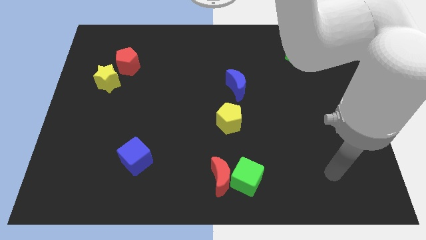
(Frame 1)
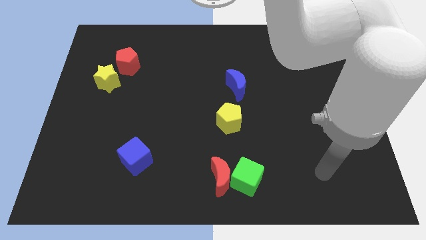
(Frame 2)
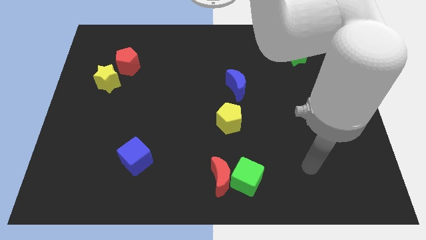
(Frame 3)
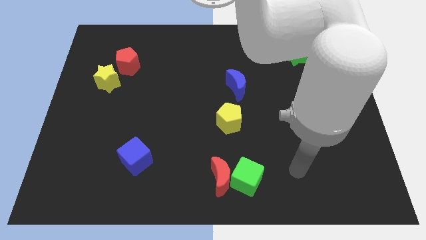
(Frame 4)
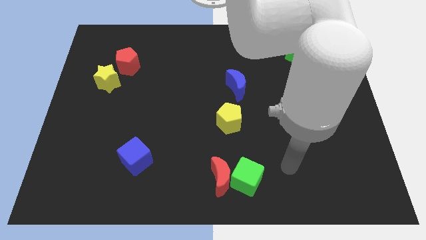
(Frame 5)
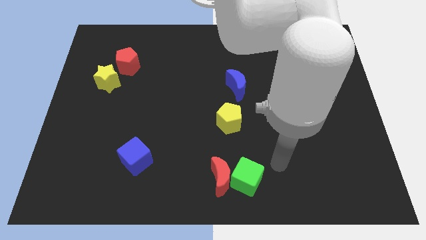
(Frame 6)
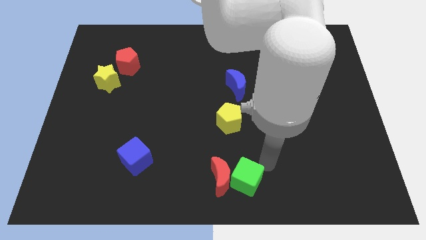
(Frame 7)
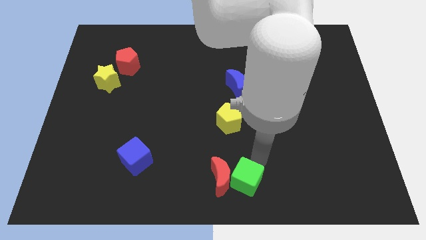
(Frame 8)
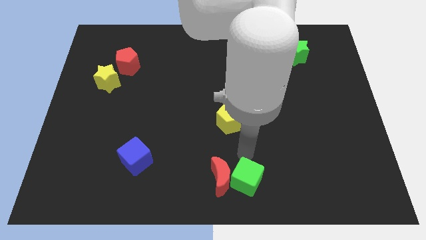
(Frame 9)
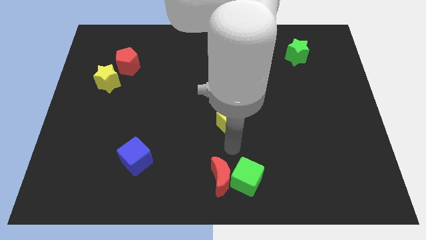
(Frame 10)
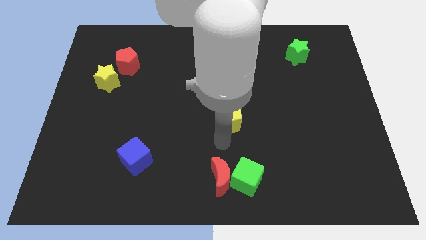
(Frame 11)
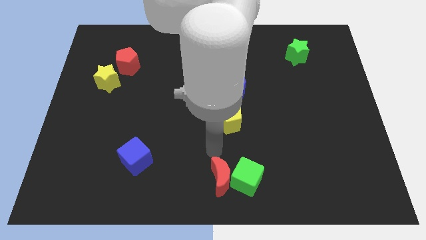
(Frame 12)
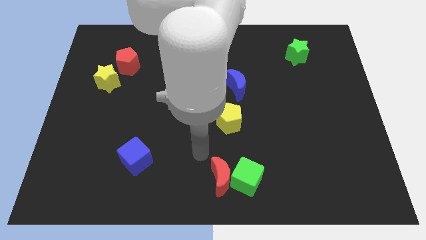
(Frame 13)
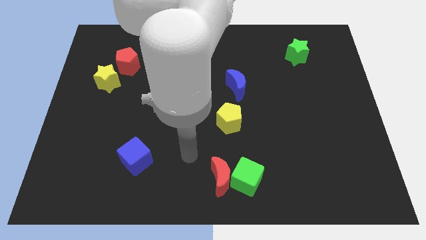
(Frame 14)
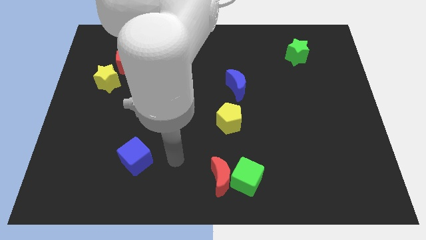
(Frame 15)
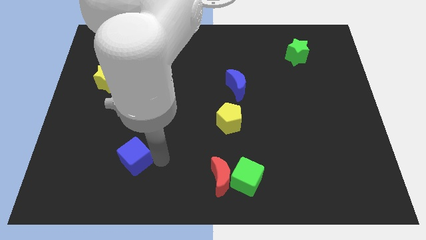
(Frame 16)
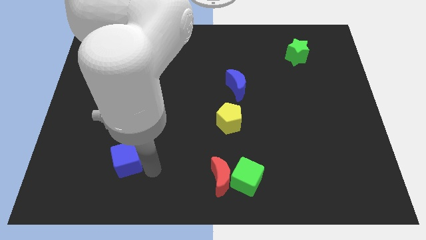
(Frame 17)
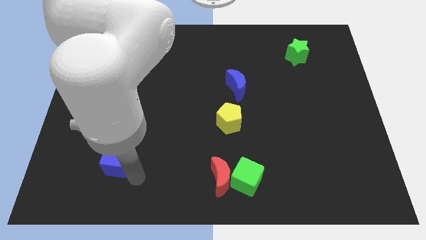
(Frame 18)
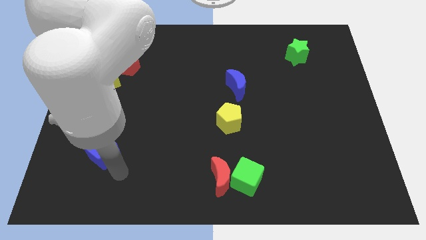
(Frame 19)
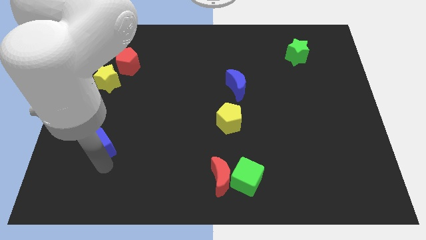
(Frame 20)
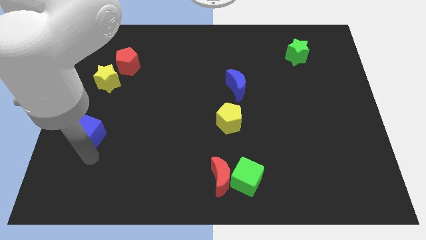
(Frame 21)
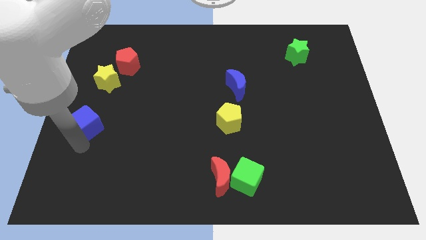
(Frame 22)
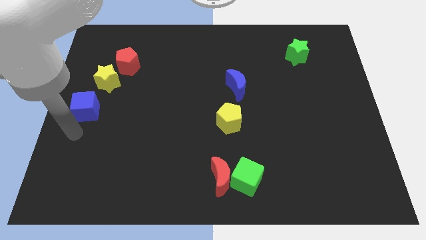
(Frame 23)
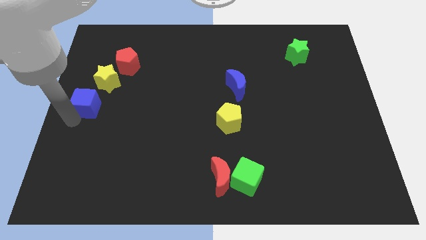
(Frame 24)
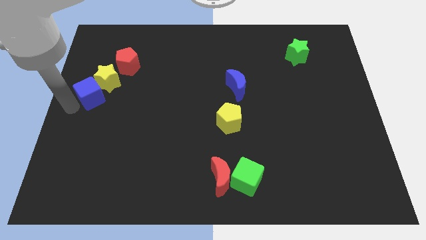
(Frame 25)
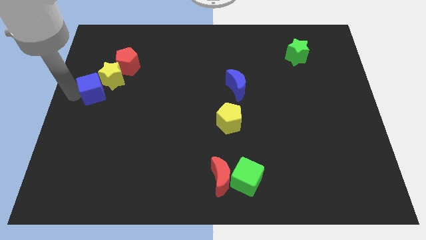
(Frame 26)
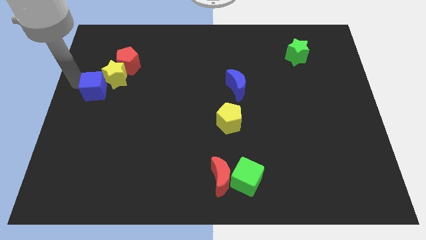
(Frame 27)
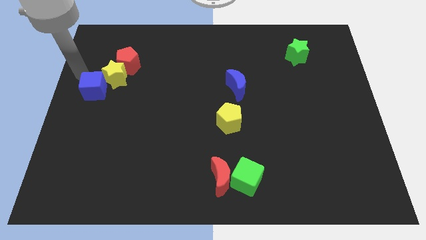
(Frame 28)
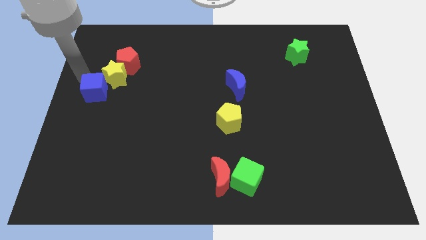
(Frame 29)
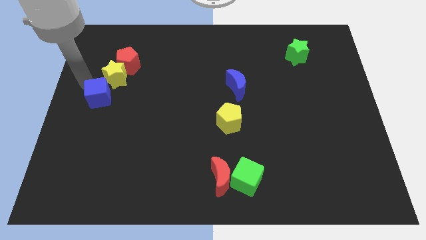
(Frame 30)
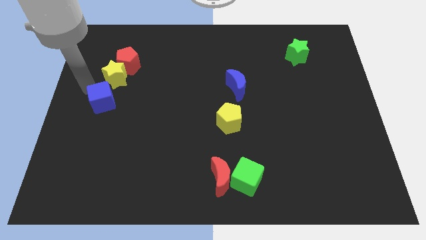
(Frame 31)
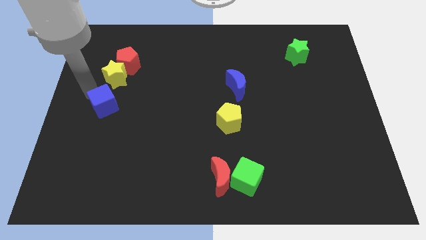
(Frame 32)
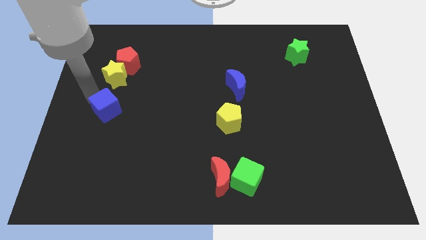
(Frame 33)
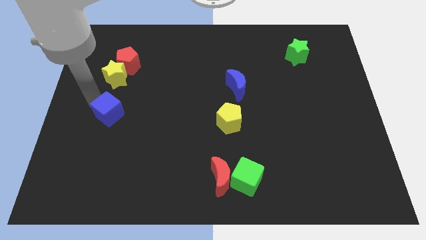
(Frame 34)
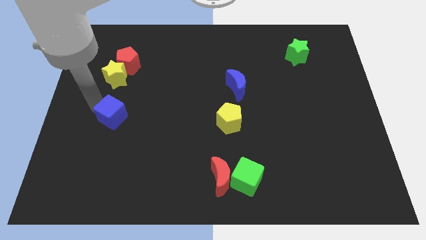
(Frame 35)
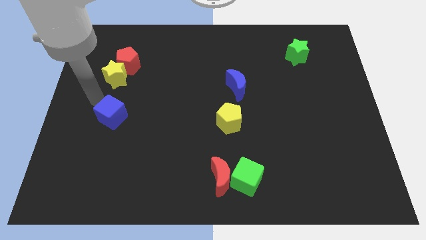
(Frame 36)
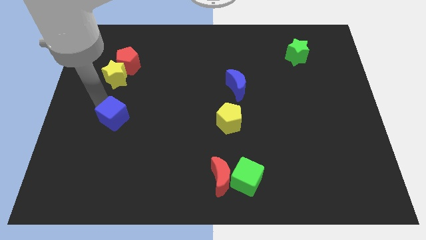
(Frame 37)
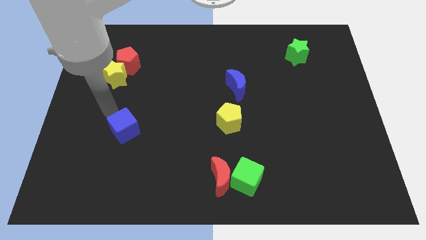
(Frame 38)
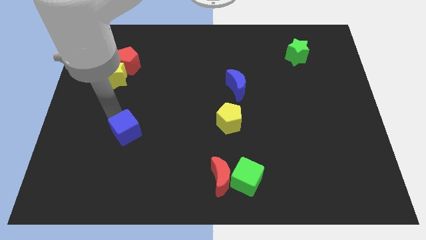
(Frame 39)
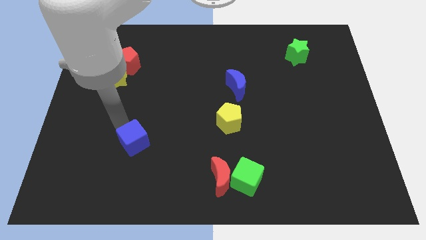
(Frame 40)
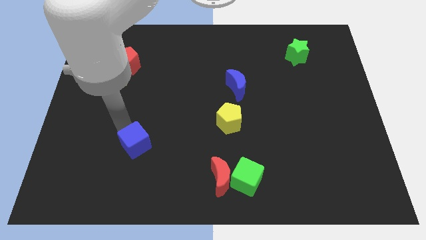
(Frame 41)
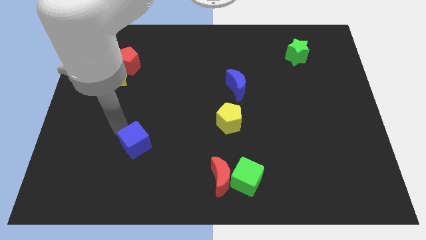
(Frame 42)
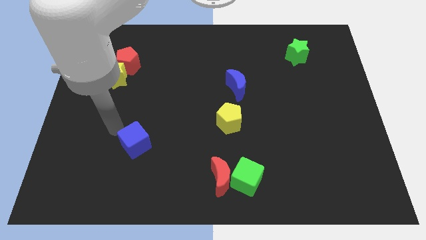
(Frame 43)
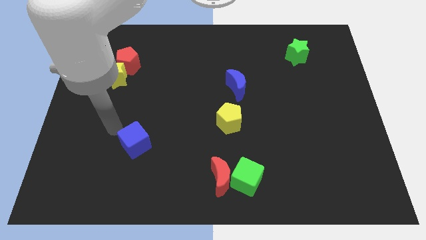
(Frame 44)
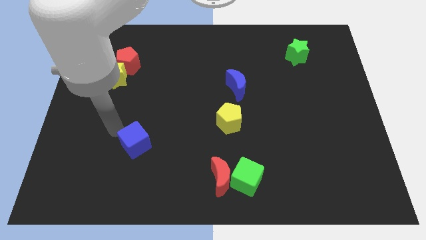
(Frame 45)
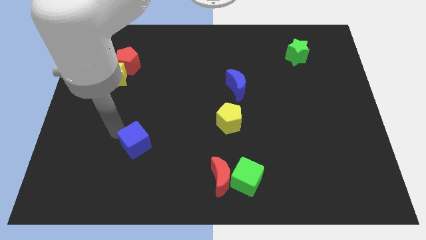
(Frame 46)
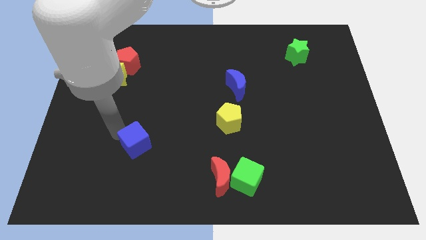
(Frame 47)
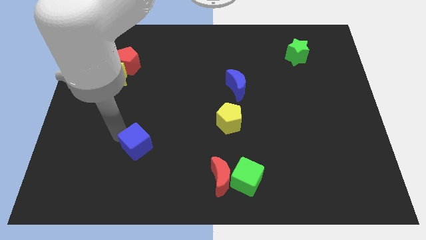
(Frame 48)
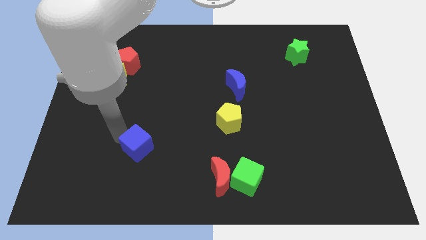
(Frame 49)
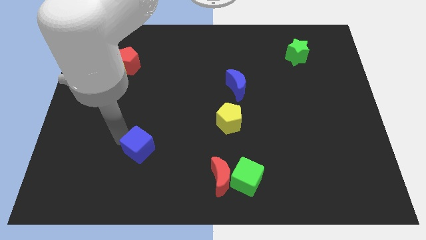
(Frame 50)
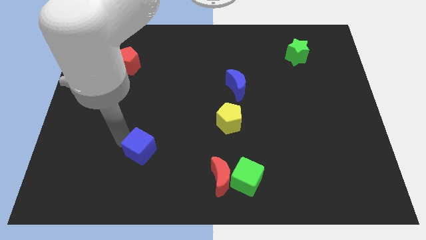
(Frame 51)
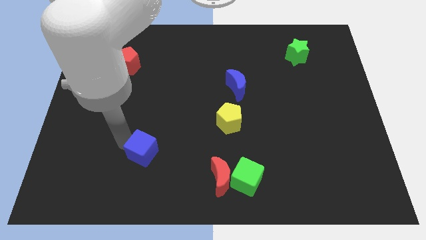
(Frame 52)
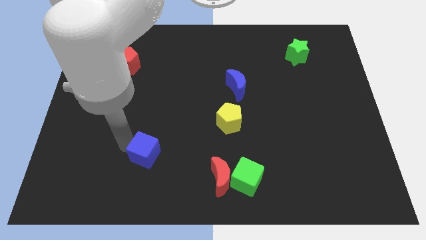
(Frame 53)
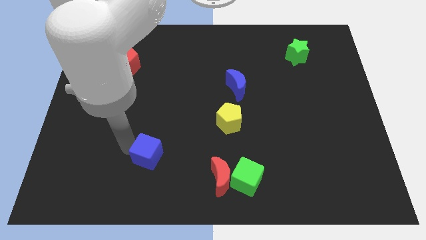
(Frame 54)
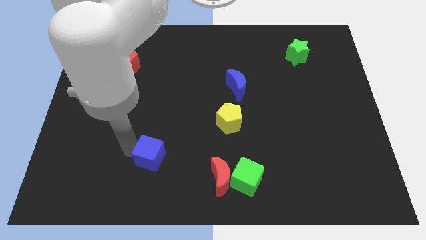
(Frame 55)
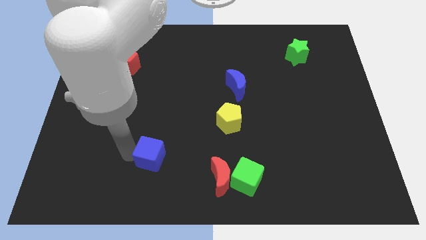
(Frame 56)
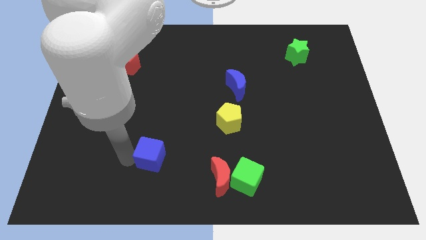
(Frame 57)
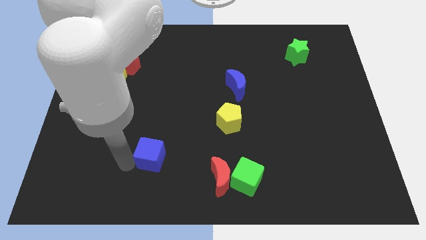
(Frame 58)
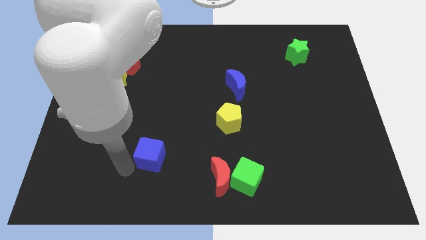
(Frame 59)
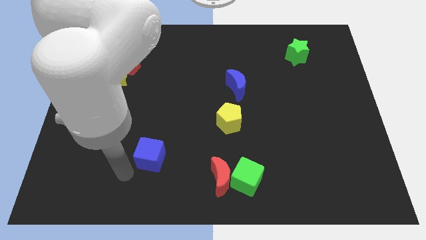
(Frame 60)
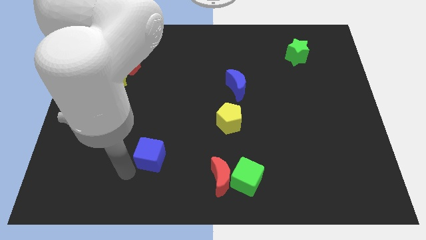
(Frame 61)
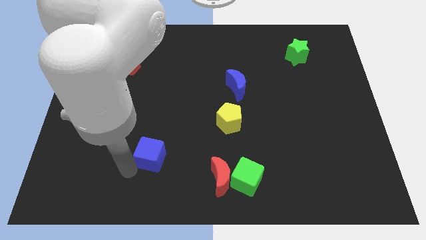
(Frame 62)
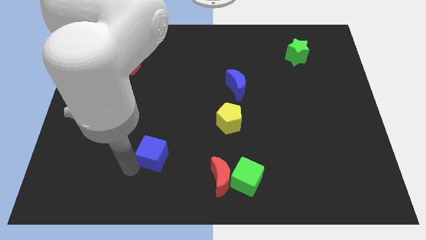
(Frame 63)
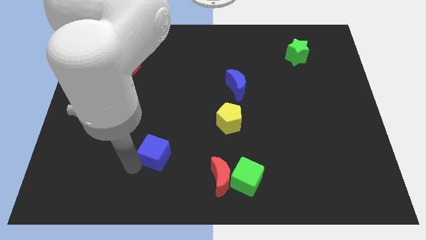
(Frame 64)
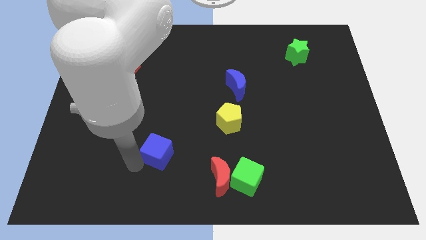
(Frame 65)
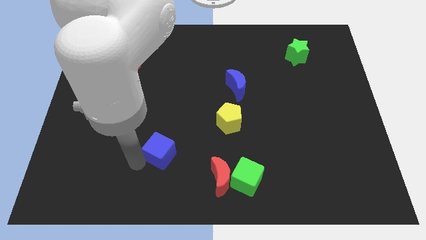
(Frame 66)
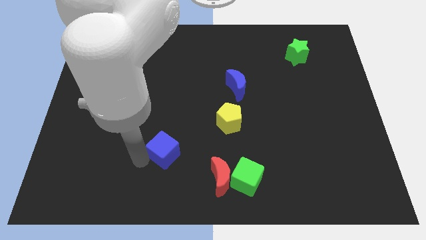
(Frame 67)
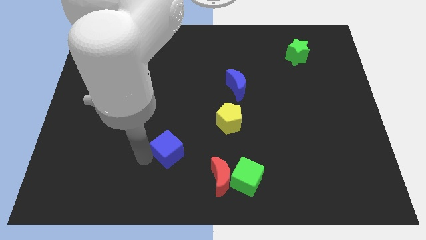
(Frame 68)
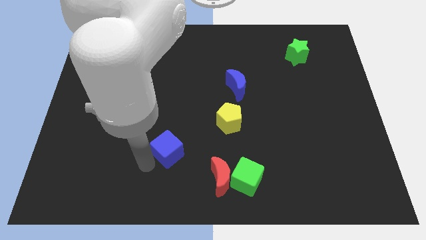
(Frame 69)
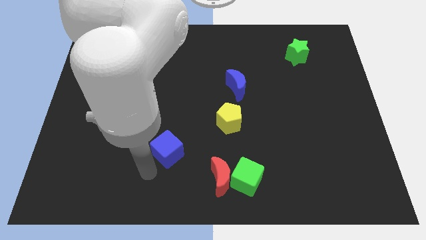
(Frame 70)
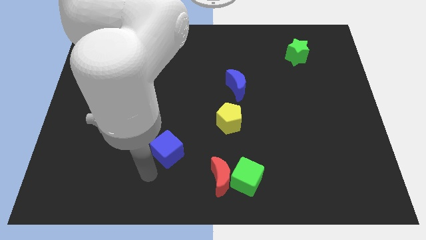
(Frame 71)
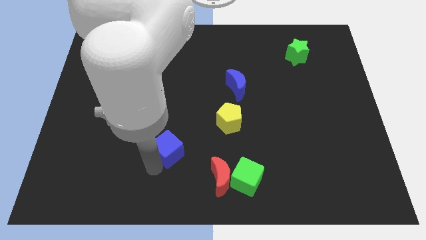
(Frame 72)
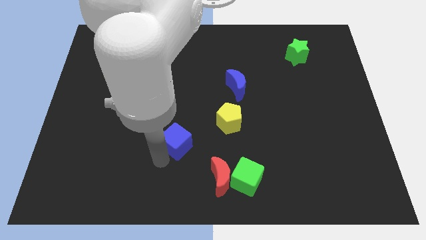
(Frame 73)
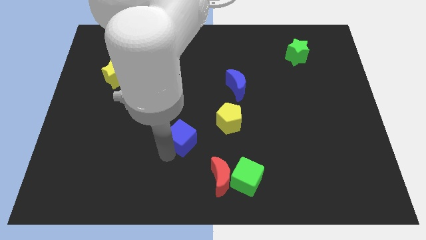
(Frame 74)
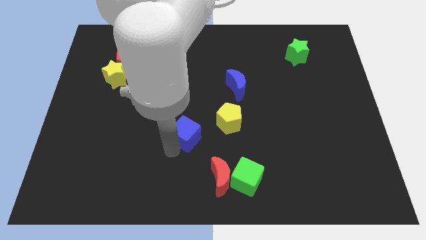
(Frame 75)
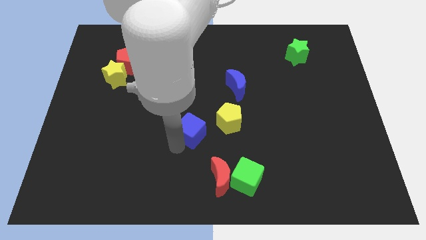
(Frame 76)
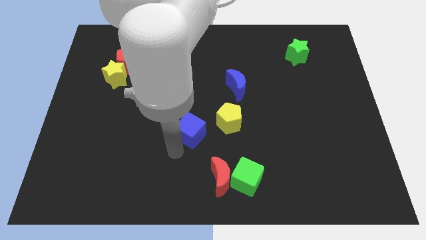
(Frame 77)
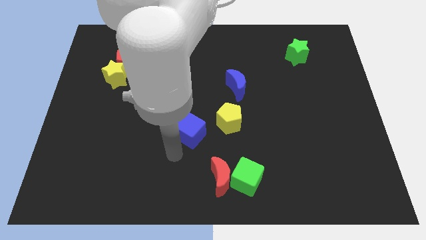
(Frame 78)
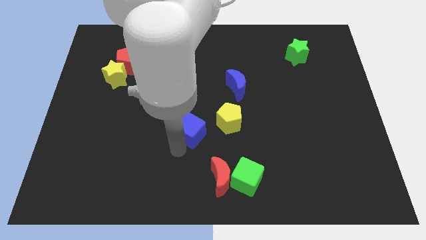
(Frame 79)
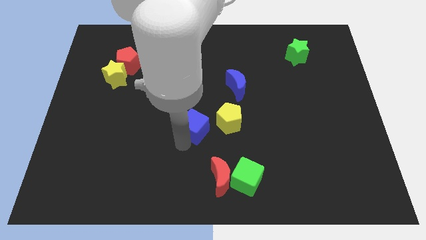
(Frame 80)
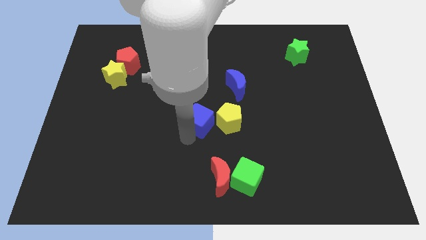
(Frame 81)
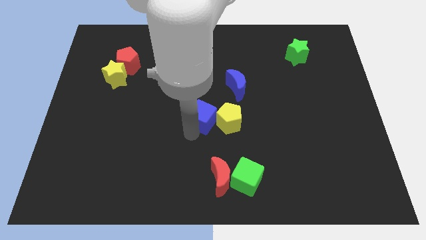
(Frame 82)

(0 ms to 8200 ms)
put the blue cube diagonally down and to the left of the blue moon
